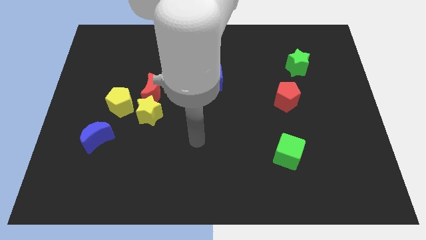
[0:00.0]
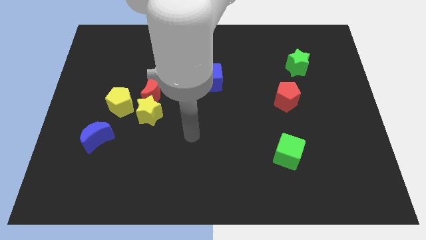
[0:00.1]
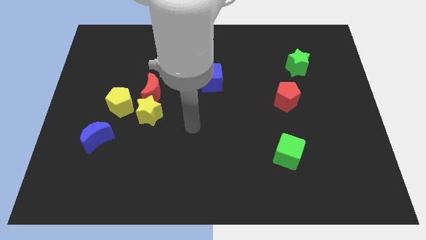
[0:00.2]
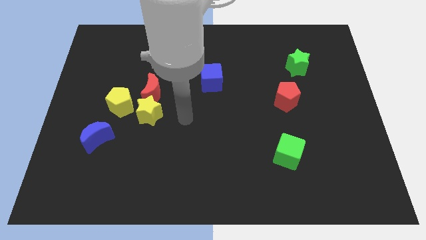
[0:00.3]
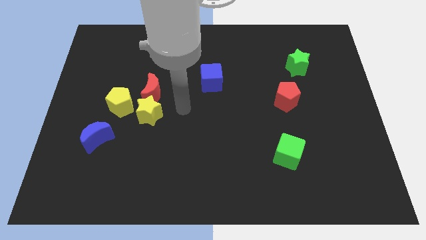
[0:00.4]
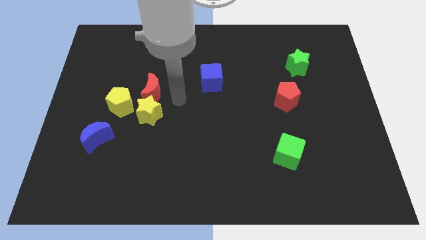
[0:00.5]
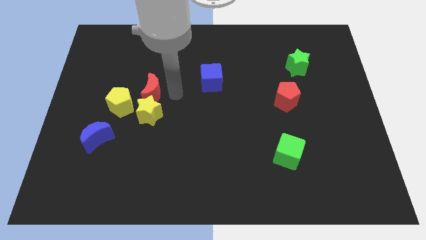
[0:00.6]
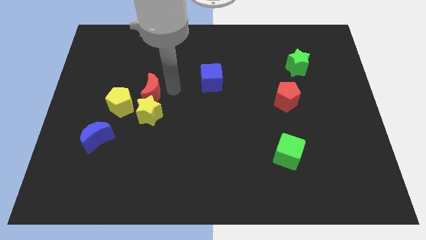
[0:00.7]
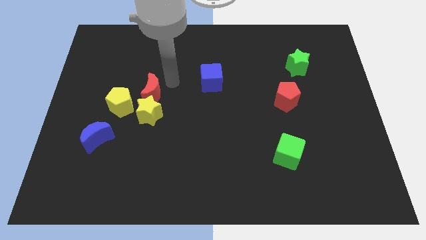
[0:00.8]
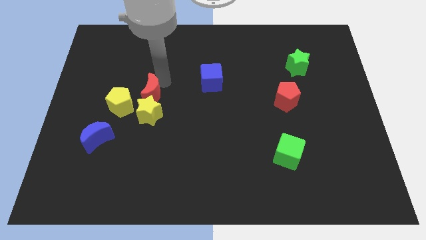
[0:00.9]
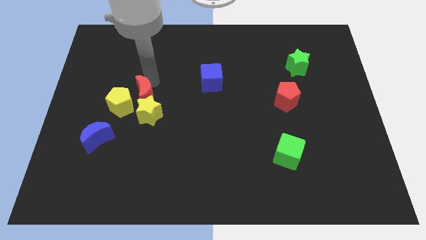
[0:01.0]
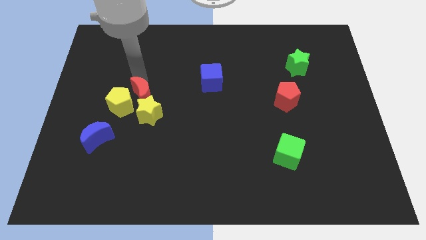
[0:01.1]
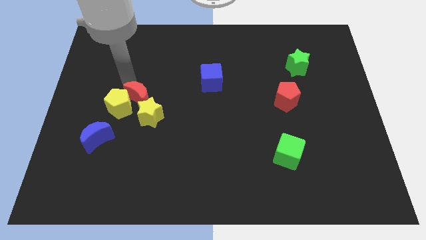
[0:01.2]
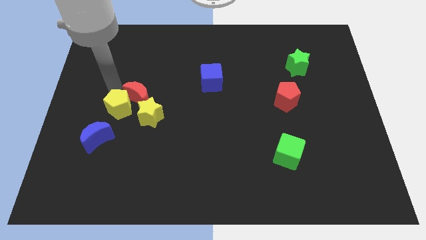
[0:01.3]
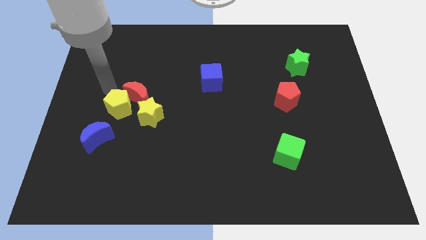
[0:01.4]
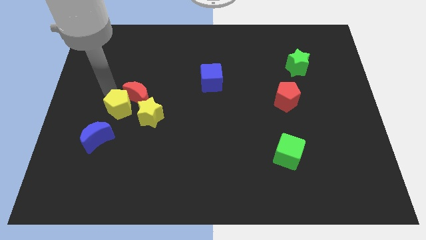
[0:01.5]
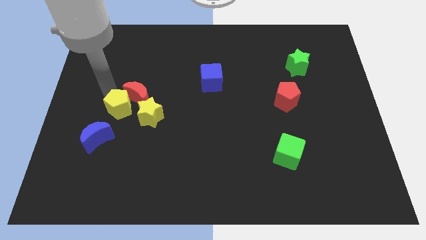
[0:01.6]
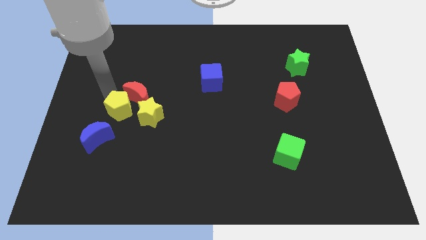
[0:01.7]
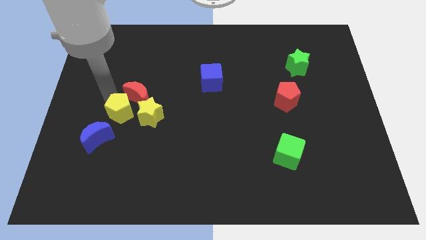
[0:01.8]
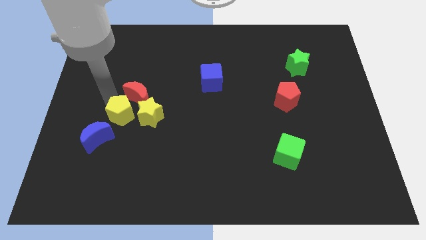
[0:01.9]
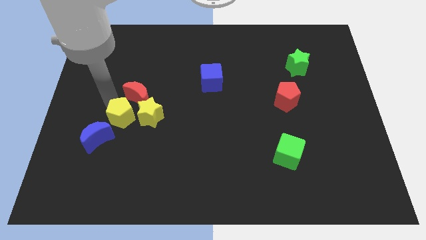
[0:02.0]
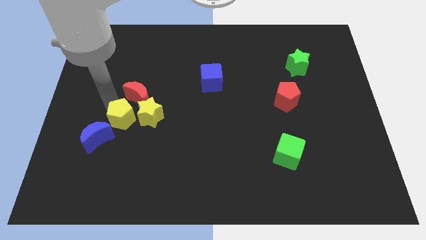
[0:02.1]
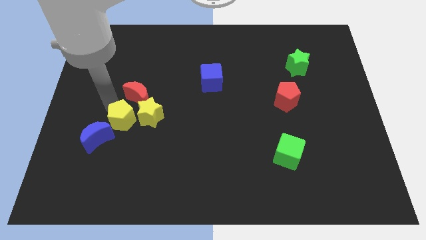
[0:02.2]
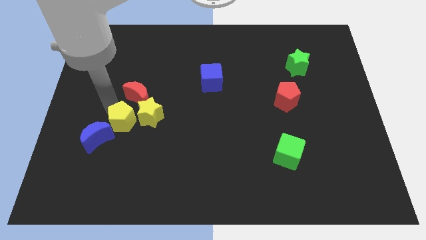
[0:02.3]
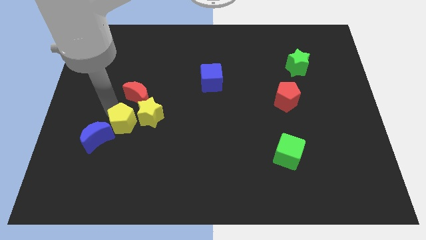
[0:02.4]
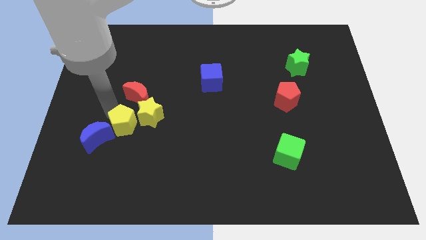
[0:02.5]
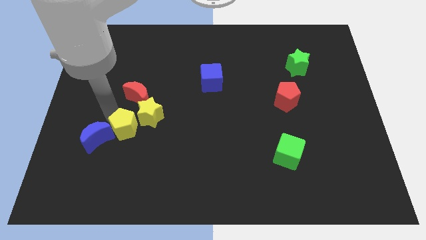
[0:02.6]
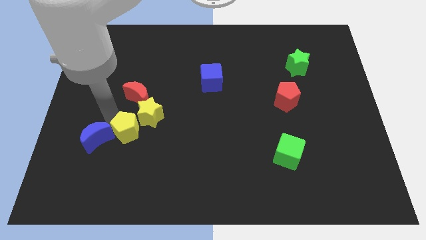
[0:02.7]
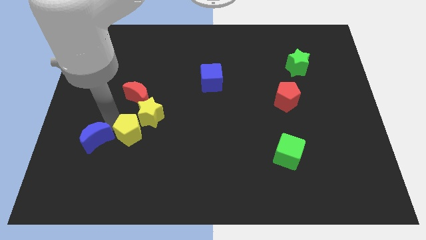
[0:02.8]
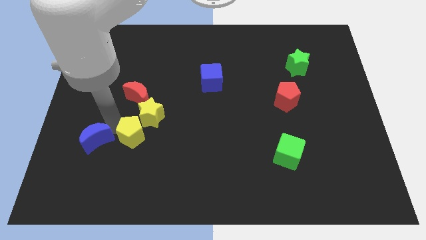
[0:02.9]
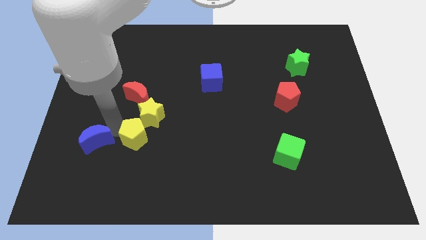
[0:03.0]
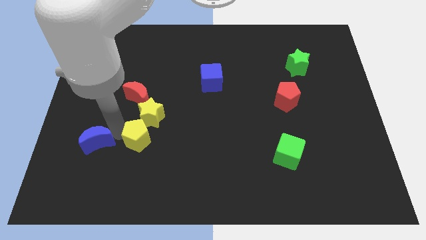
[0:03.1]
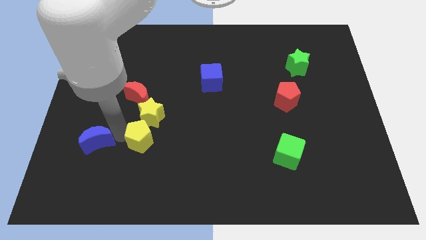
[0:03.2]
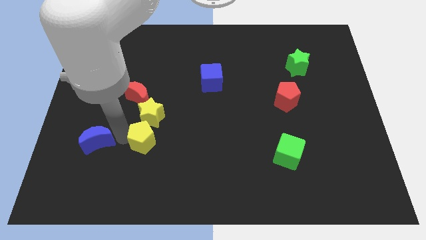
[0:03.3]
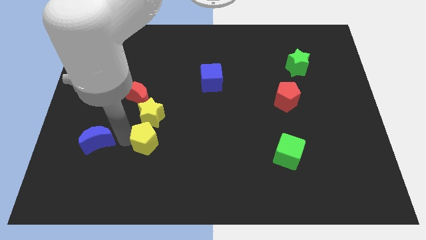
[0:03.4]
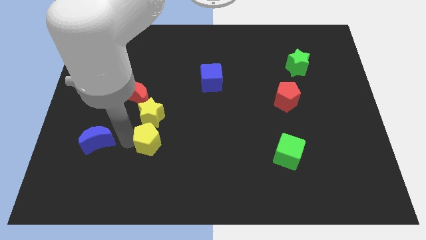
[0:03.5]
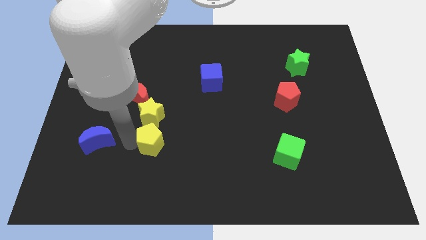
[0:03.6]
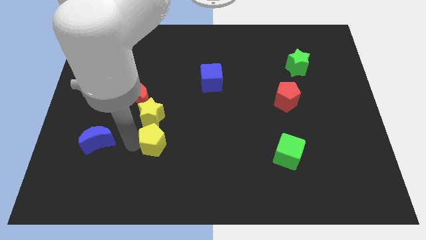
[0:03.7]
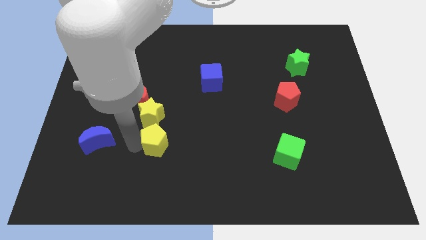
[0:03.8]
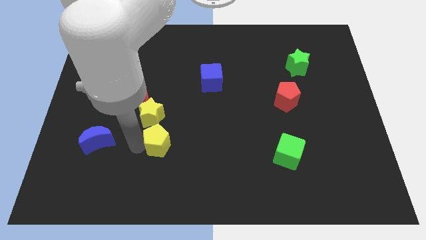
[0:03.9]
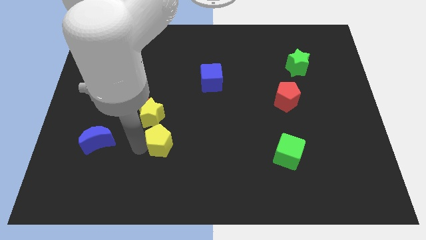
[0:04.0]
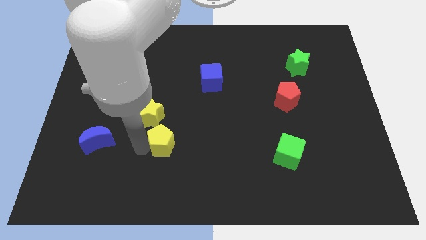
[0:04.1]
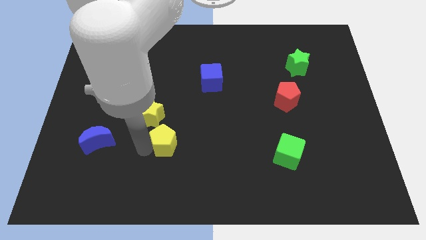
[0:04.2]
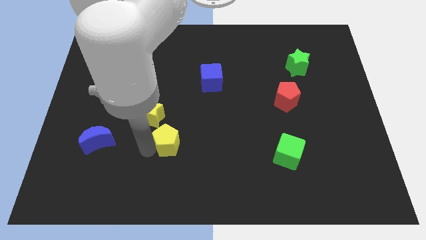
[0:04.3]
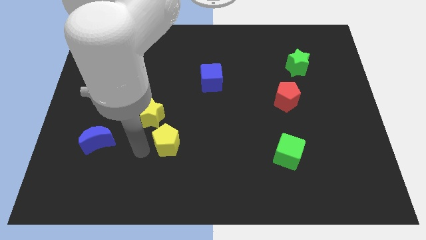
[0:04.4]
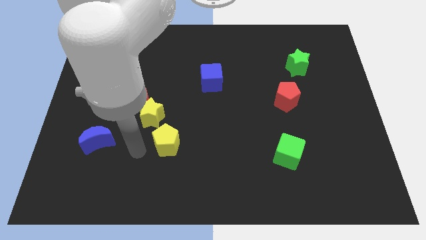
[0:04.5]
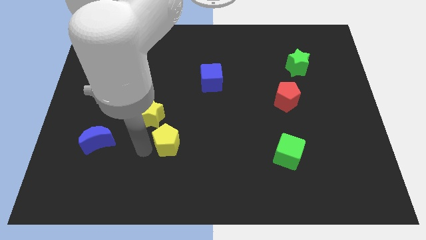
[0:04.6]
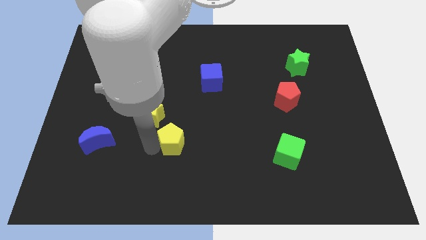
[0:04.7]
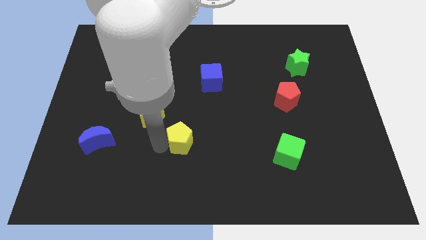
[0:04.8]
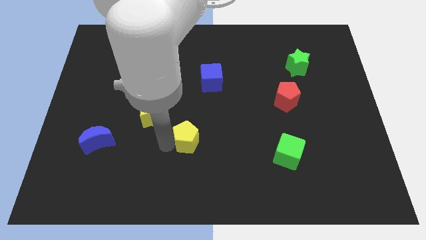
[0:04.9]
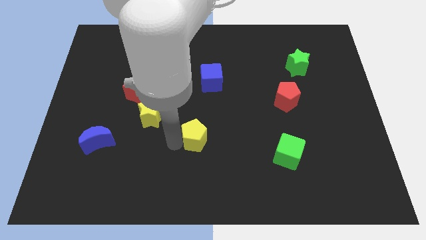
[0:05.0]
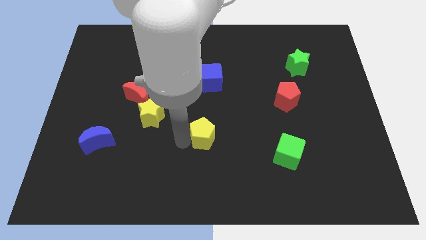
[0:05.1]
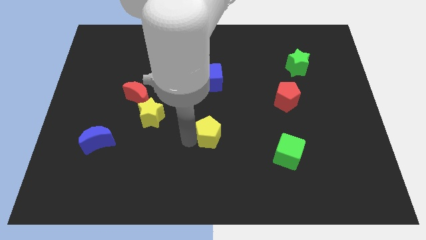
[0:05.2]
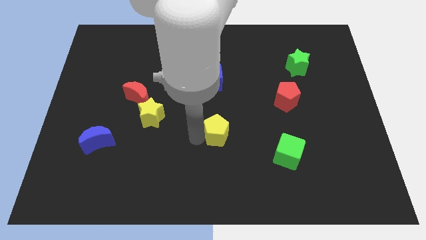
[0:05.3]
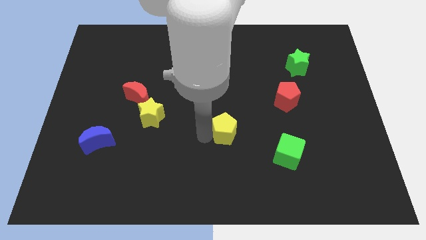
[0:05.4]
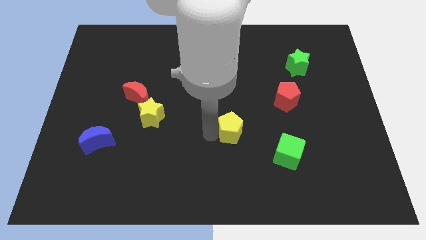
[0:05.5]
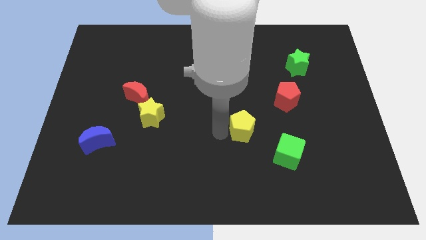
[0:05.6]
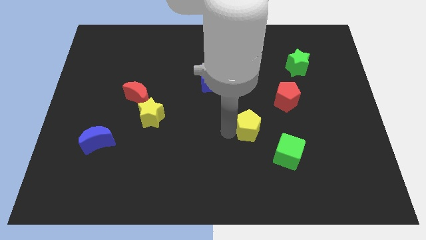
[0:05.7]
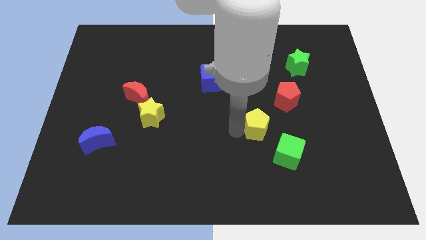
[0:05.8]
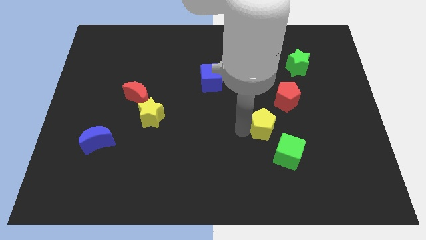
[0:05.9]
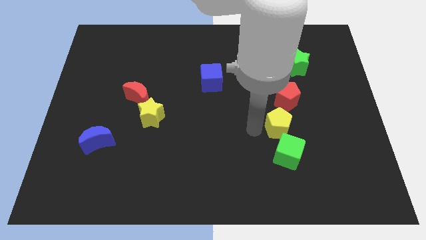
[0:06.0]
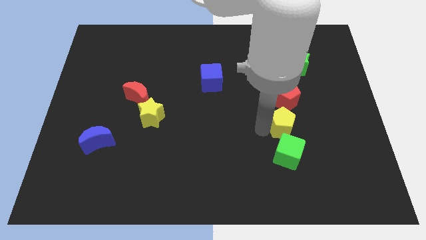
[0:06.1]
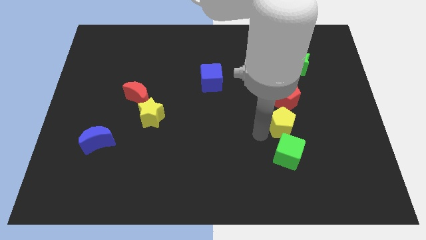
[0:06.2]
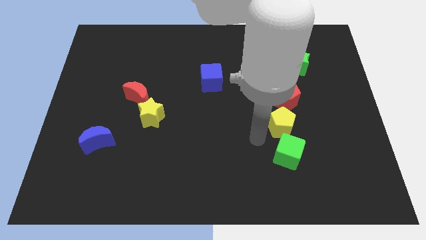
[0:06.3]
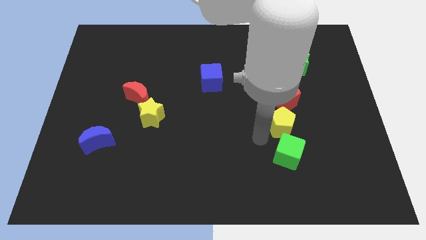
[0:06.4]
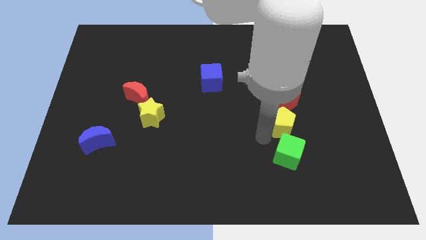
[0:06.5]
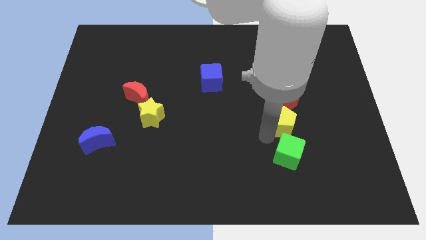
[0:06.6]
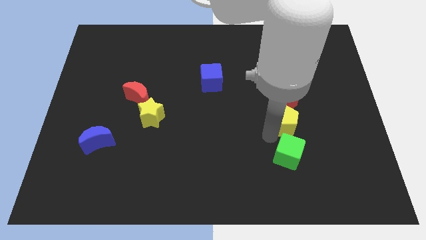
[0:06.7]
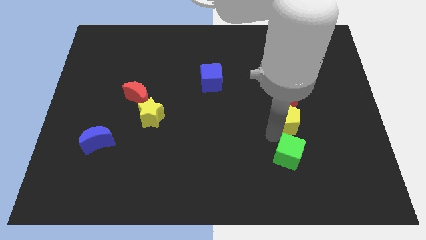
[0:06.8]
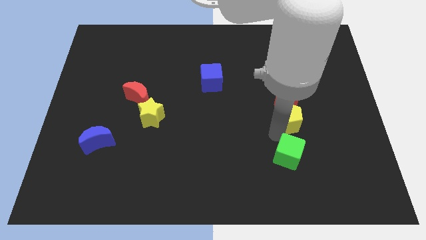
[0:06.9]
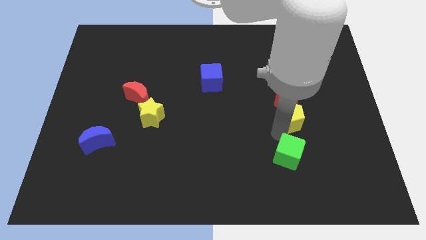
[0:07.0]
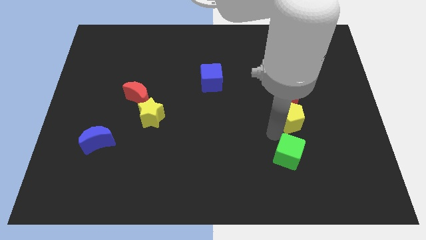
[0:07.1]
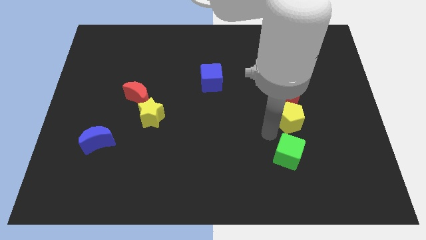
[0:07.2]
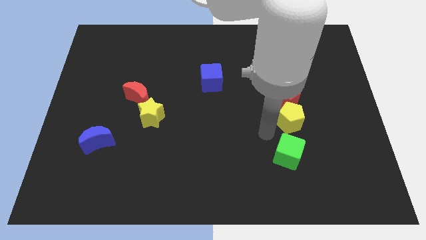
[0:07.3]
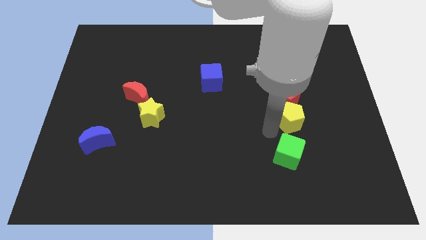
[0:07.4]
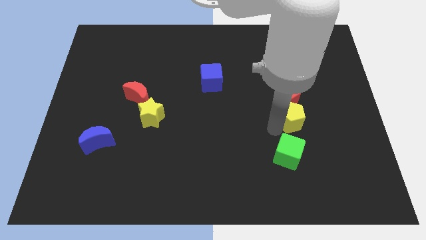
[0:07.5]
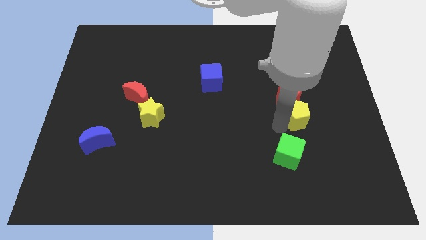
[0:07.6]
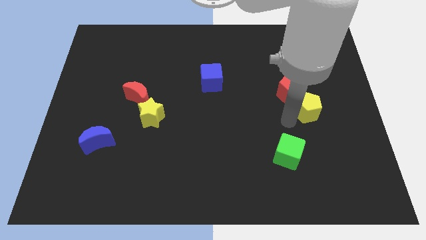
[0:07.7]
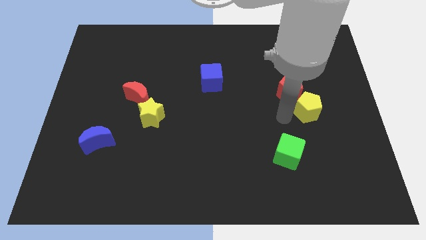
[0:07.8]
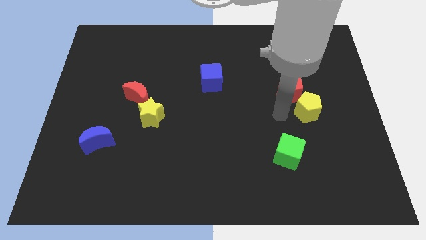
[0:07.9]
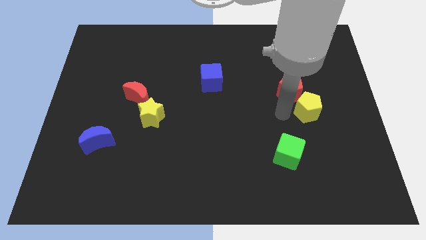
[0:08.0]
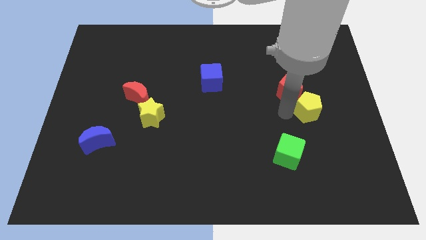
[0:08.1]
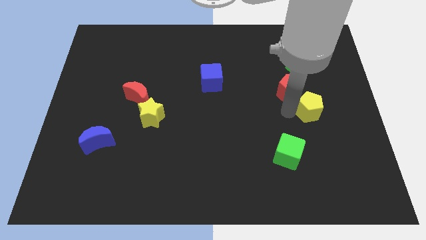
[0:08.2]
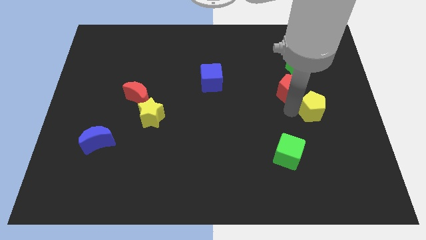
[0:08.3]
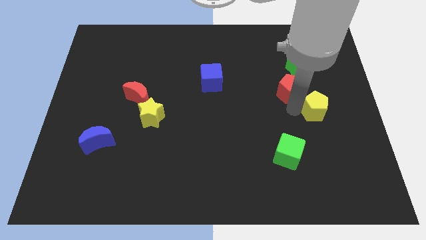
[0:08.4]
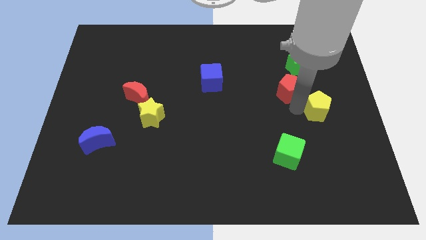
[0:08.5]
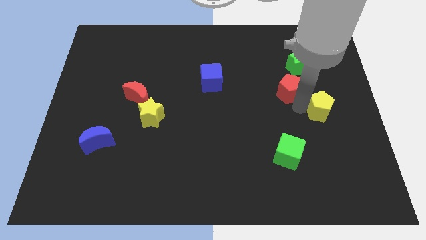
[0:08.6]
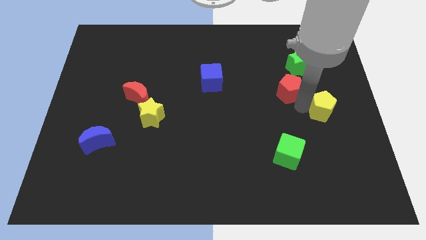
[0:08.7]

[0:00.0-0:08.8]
move the yellow pentagon to the right side
